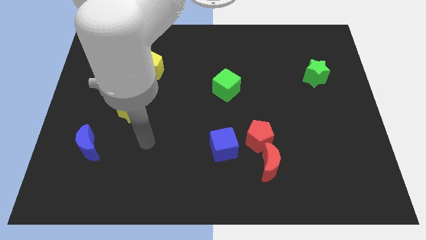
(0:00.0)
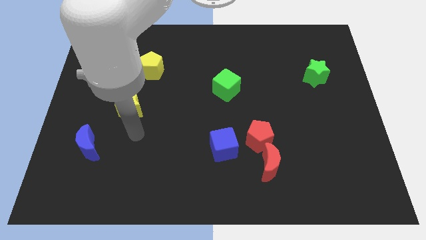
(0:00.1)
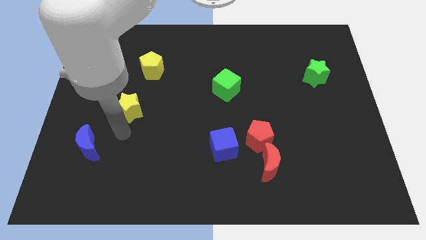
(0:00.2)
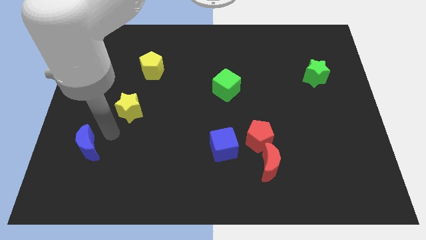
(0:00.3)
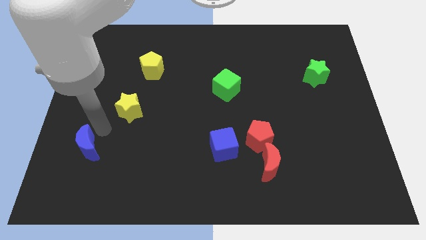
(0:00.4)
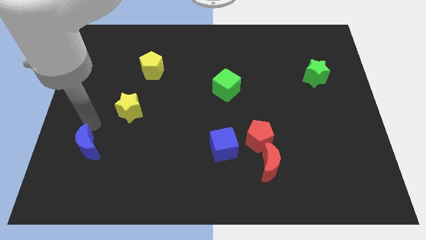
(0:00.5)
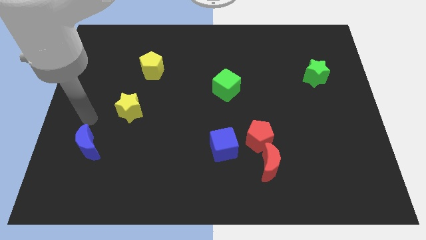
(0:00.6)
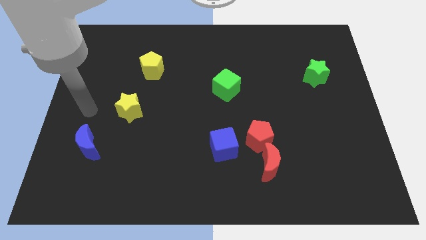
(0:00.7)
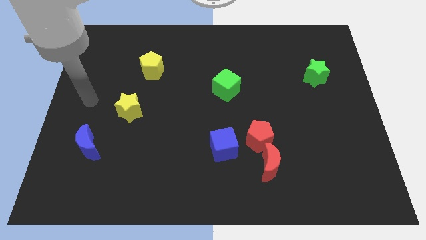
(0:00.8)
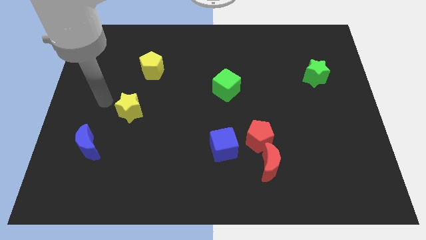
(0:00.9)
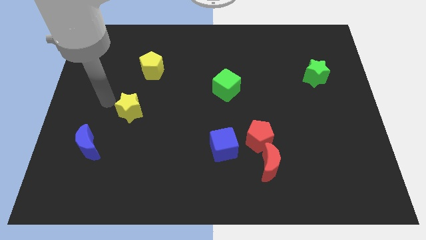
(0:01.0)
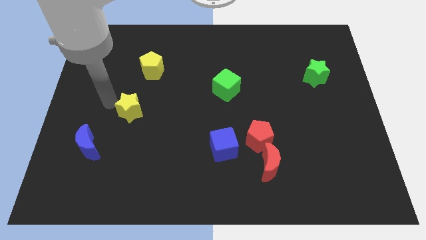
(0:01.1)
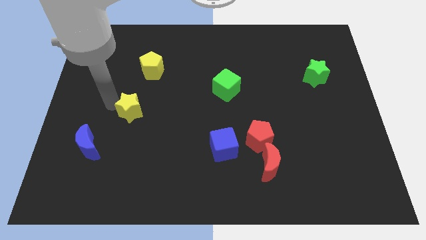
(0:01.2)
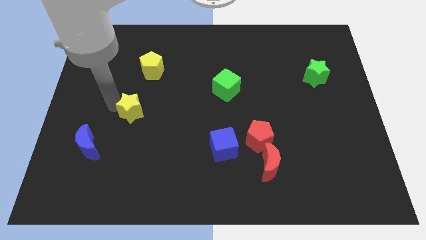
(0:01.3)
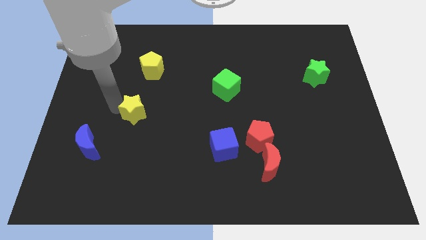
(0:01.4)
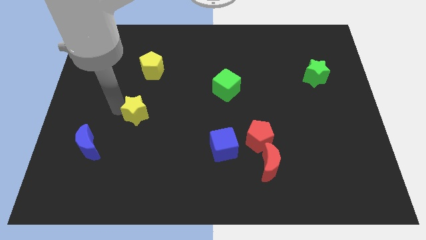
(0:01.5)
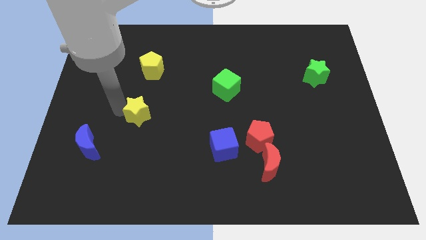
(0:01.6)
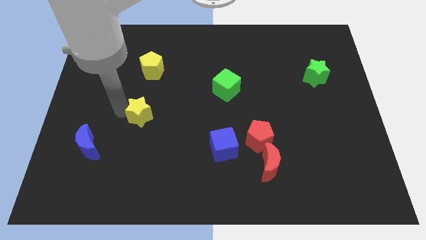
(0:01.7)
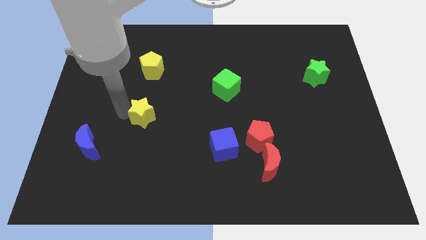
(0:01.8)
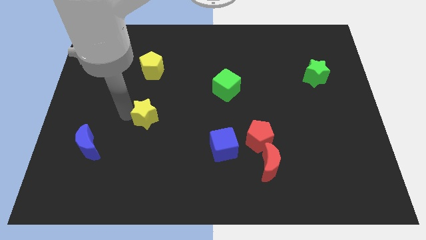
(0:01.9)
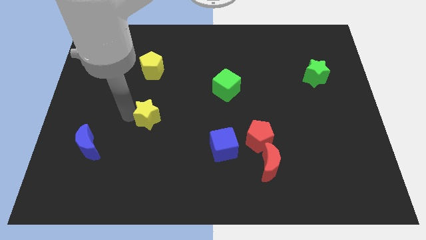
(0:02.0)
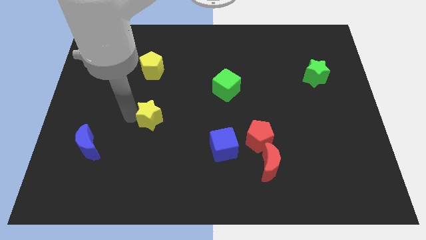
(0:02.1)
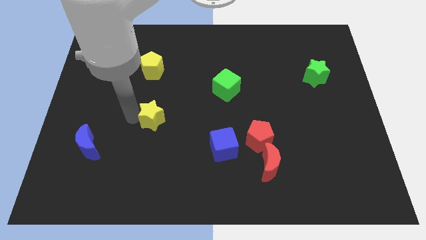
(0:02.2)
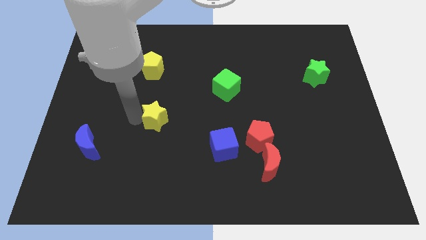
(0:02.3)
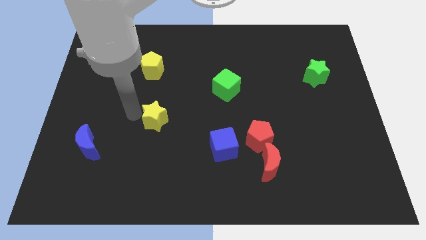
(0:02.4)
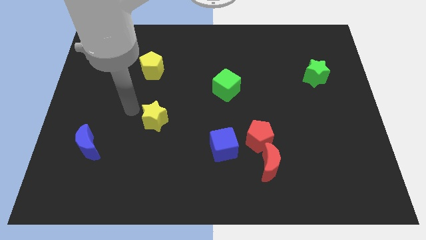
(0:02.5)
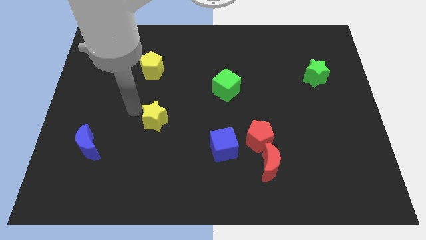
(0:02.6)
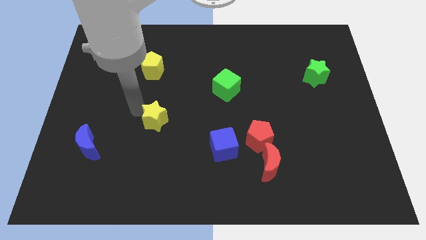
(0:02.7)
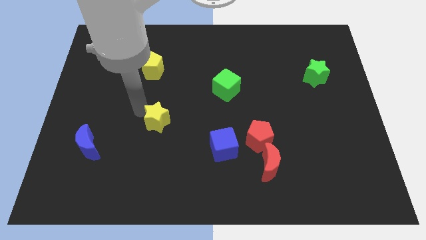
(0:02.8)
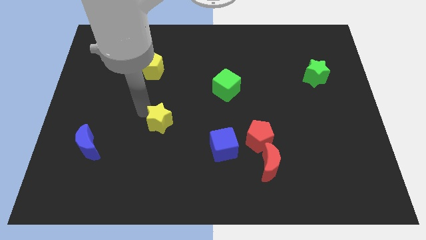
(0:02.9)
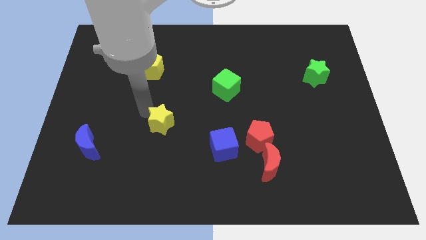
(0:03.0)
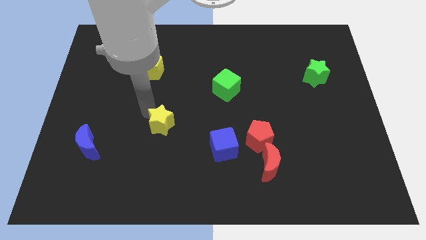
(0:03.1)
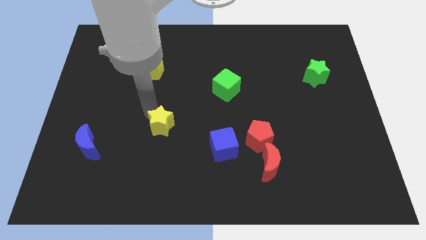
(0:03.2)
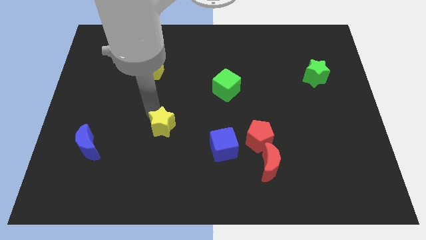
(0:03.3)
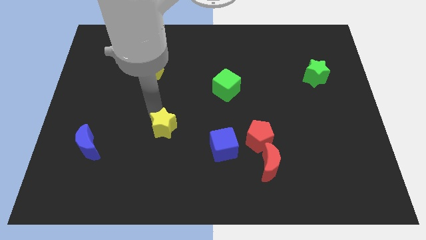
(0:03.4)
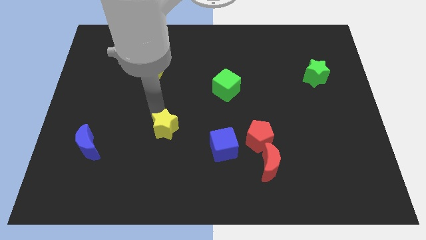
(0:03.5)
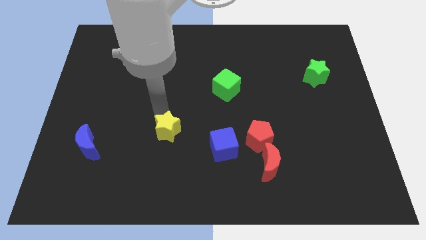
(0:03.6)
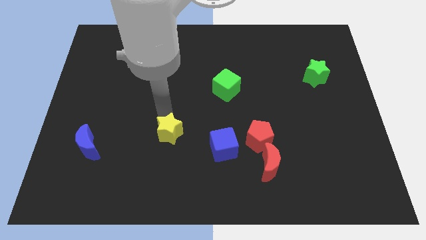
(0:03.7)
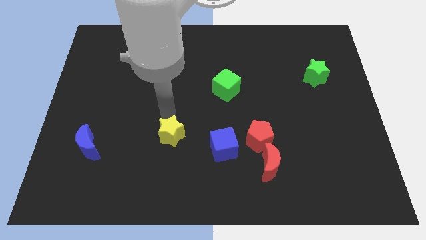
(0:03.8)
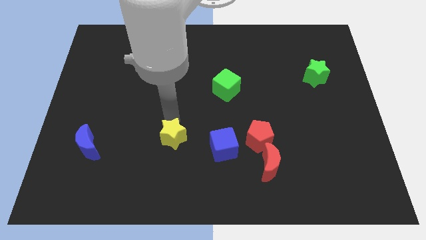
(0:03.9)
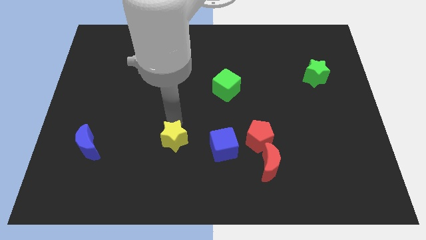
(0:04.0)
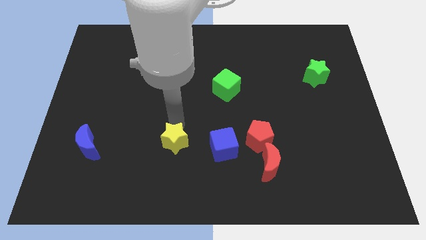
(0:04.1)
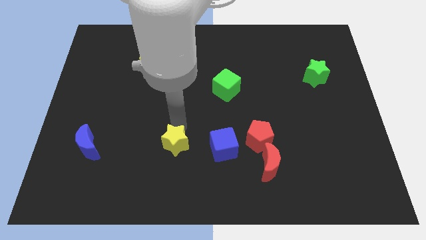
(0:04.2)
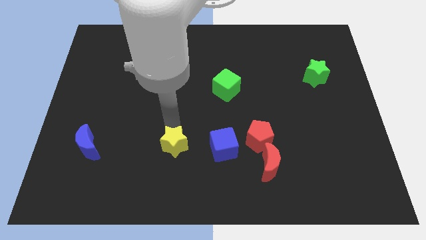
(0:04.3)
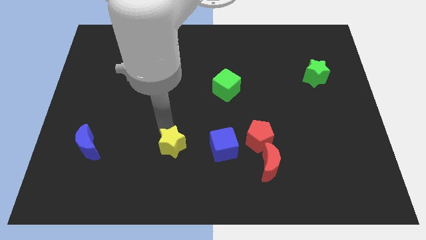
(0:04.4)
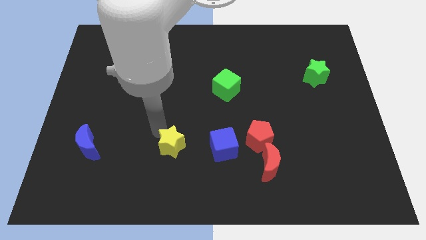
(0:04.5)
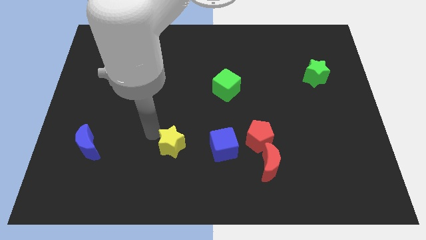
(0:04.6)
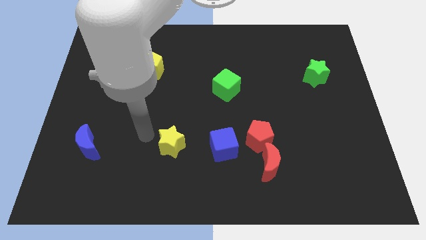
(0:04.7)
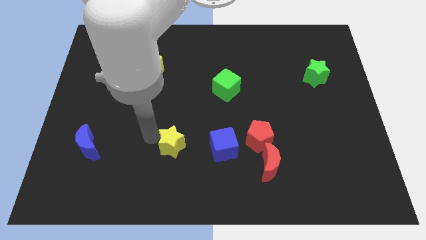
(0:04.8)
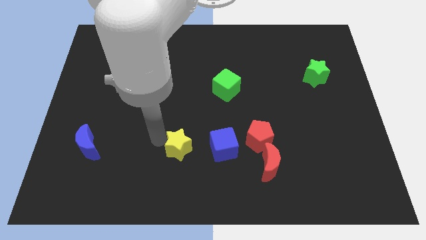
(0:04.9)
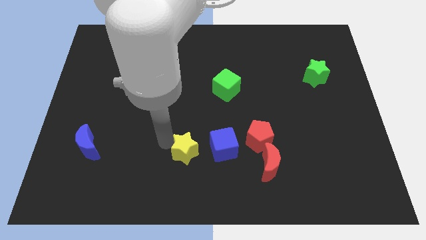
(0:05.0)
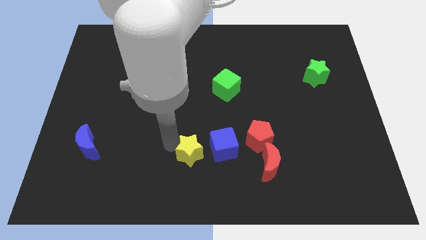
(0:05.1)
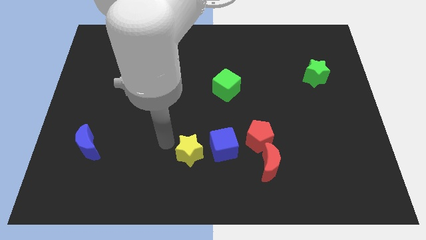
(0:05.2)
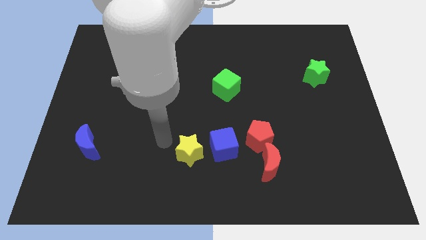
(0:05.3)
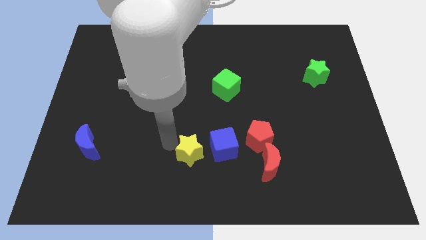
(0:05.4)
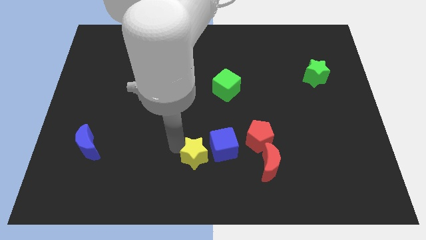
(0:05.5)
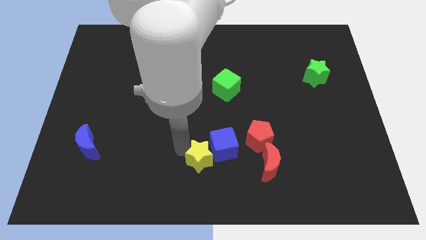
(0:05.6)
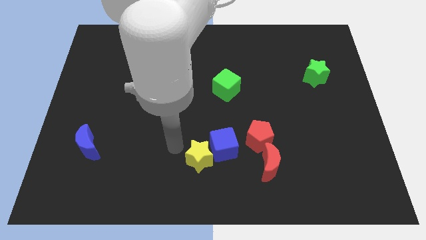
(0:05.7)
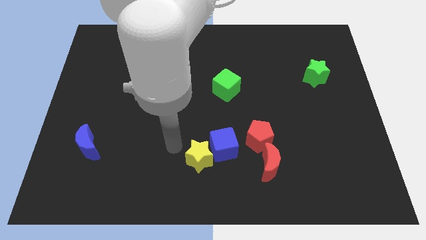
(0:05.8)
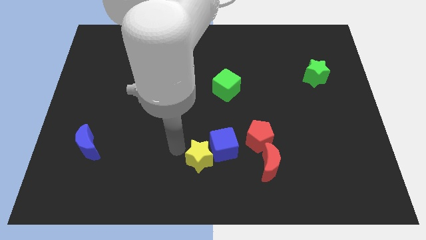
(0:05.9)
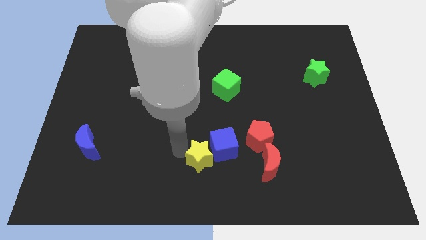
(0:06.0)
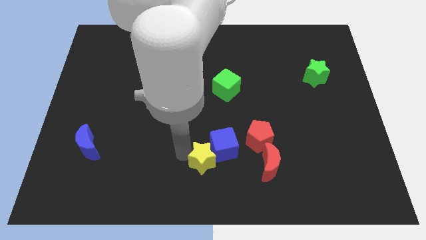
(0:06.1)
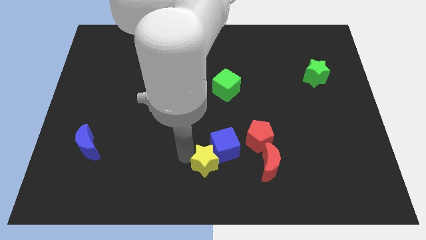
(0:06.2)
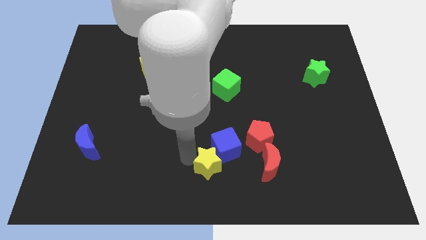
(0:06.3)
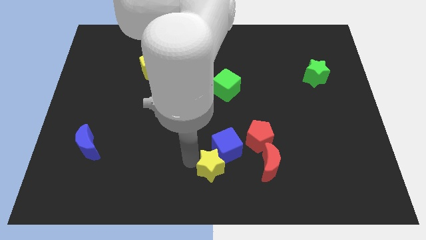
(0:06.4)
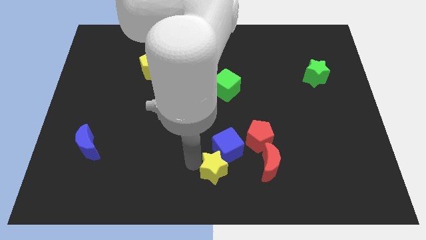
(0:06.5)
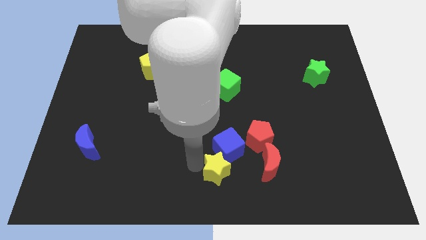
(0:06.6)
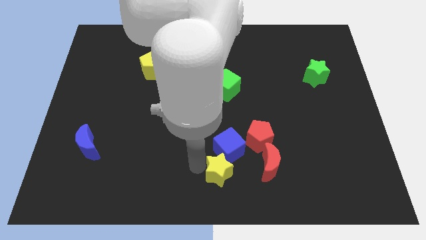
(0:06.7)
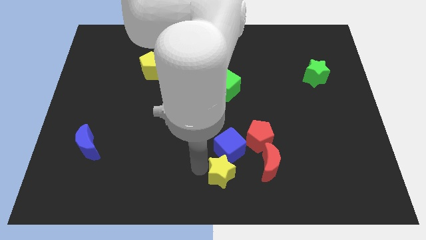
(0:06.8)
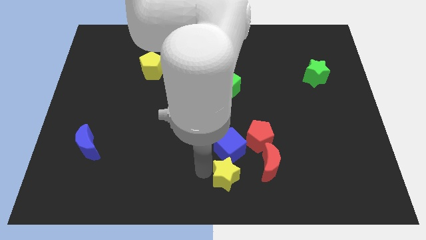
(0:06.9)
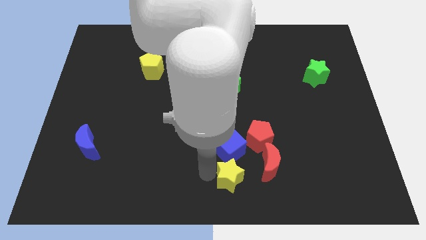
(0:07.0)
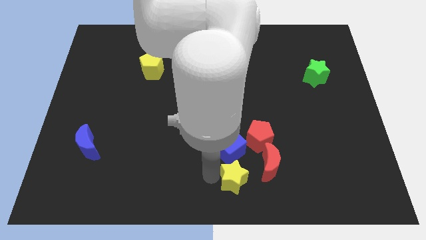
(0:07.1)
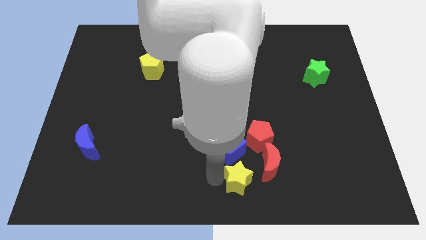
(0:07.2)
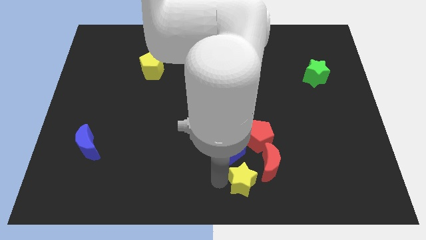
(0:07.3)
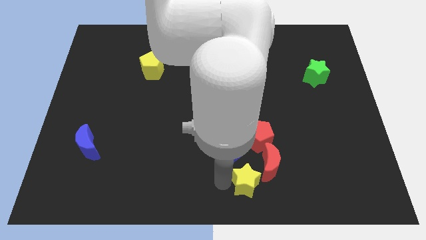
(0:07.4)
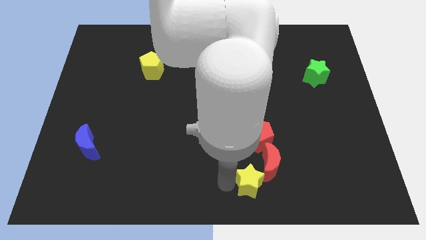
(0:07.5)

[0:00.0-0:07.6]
put the yellow star next to the red moon
